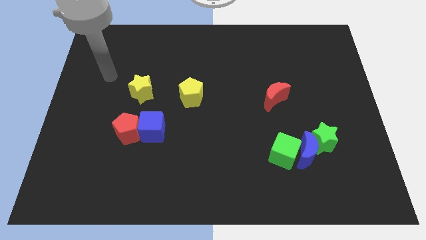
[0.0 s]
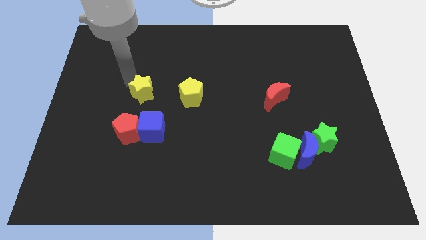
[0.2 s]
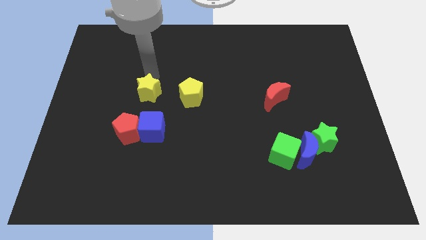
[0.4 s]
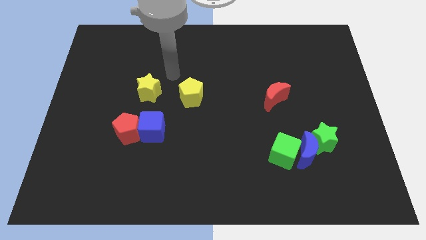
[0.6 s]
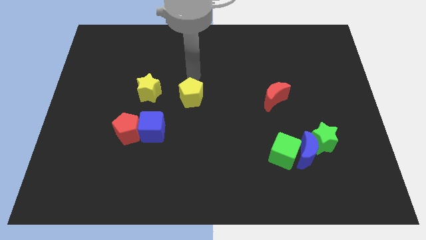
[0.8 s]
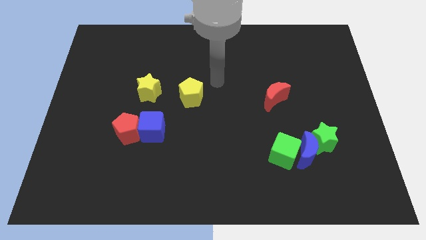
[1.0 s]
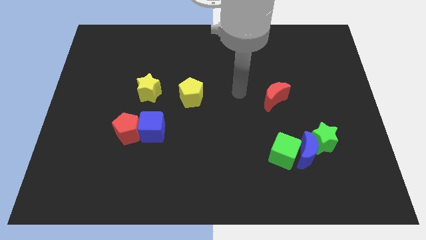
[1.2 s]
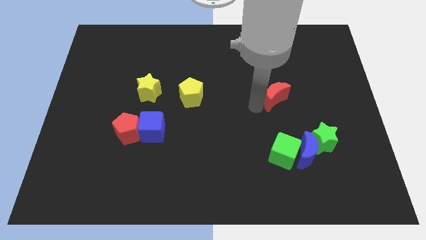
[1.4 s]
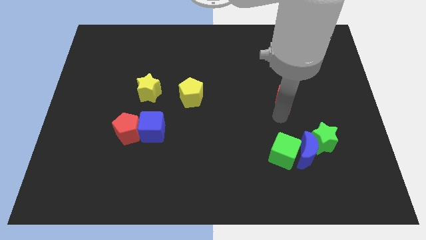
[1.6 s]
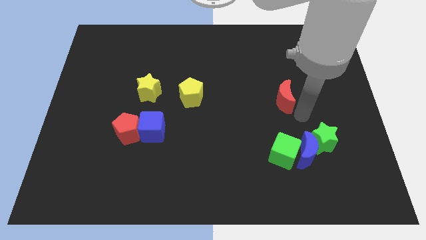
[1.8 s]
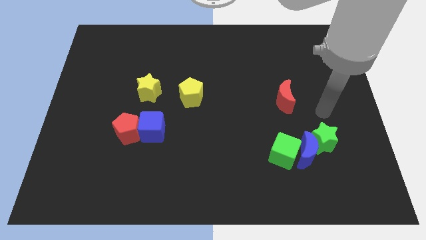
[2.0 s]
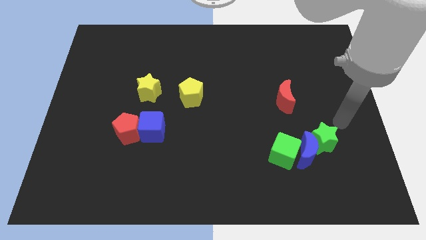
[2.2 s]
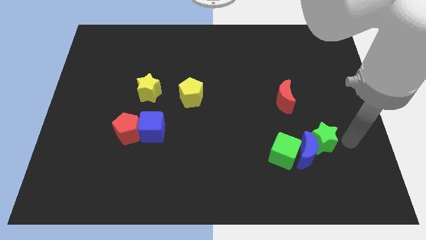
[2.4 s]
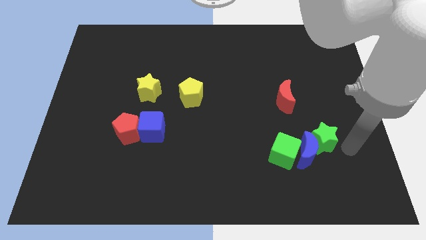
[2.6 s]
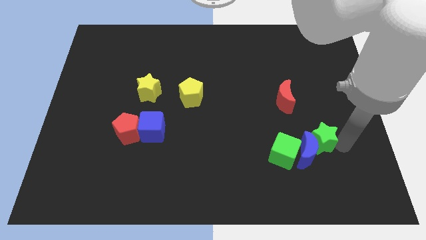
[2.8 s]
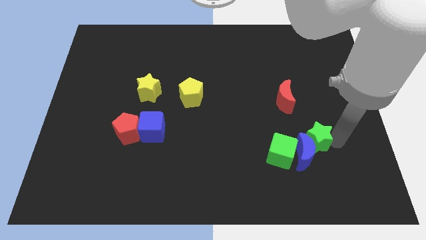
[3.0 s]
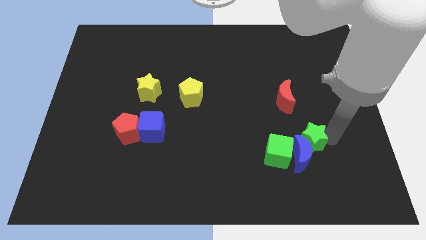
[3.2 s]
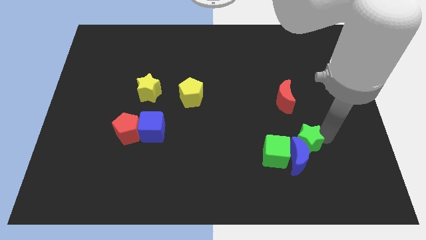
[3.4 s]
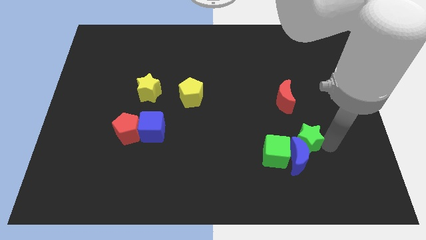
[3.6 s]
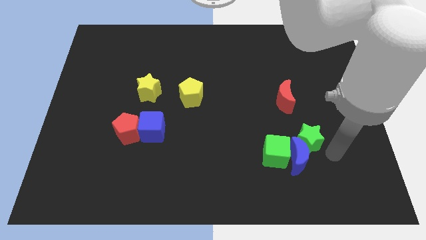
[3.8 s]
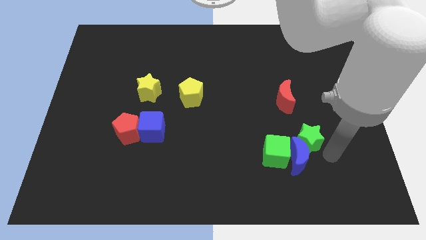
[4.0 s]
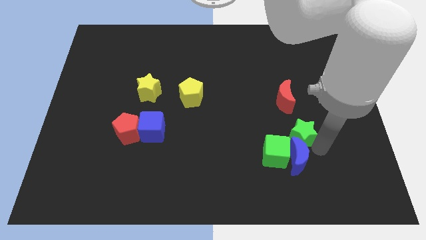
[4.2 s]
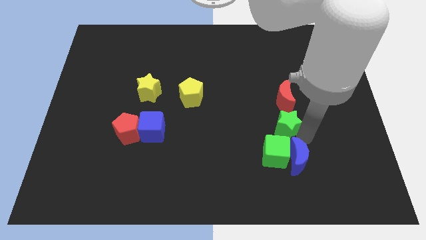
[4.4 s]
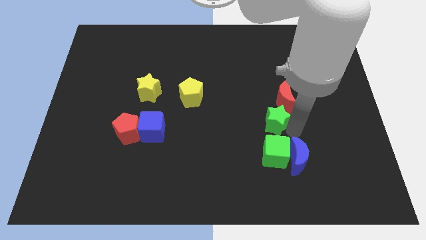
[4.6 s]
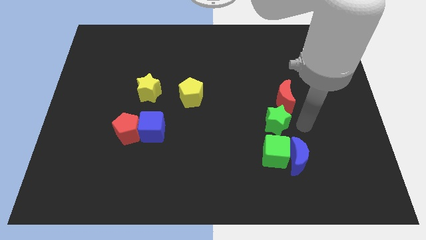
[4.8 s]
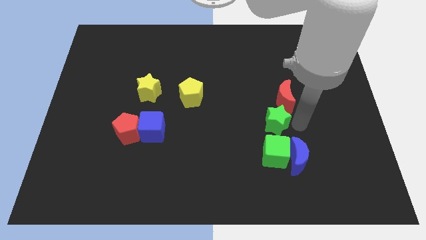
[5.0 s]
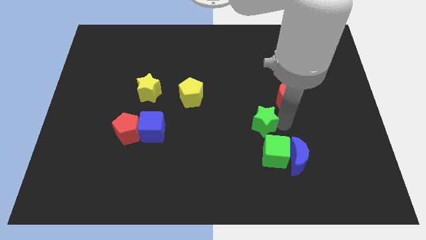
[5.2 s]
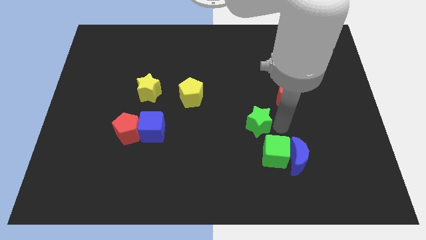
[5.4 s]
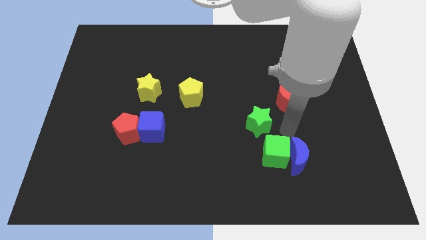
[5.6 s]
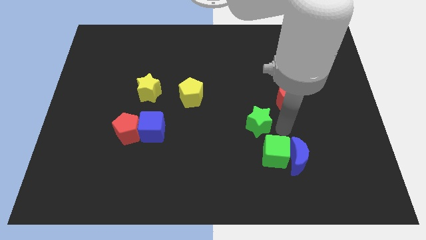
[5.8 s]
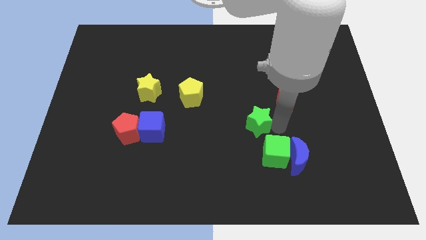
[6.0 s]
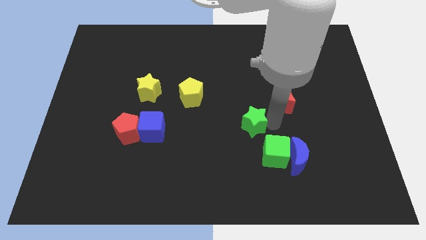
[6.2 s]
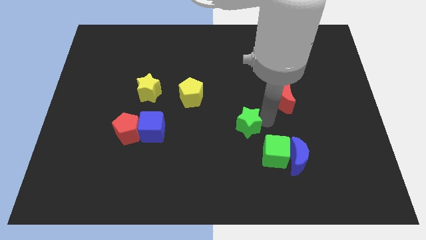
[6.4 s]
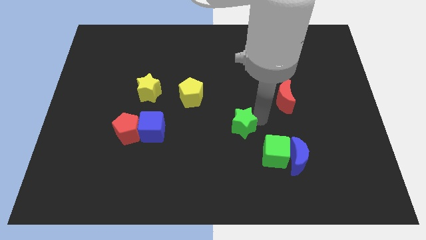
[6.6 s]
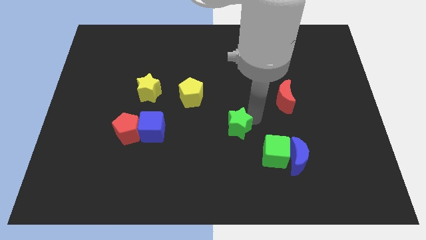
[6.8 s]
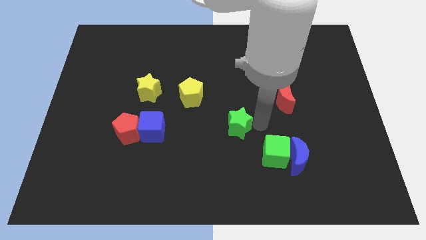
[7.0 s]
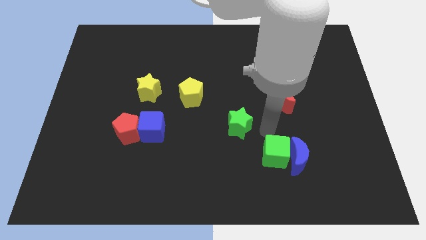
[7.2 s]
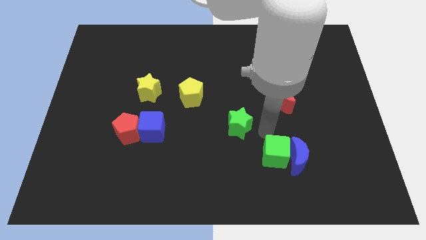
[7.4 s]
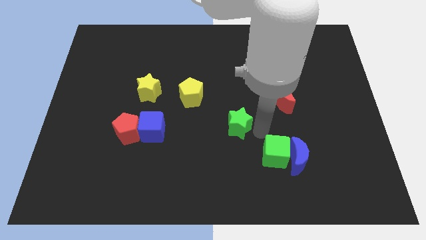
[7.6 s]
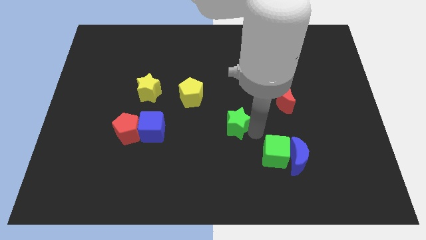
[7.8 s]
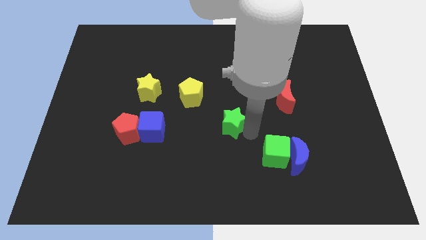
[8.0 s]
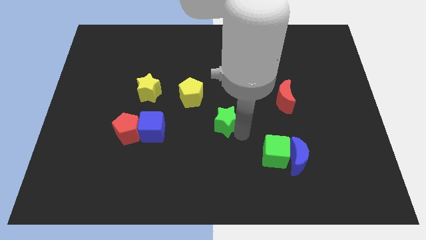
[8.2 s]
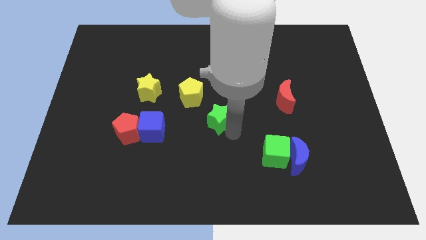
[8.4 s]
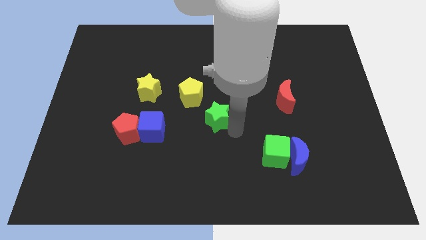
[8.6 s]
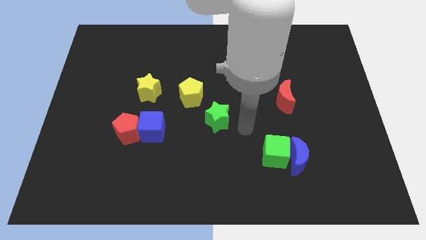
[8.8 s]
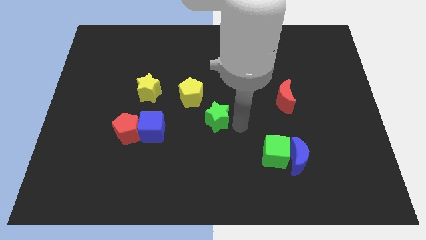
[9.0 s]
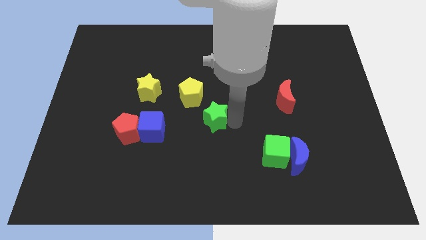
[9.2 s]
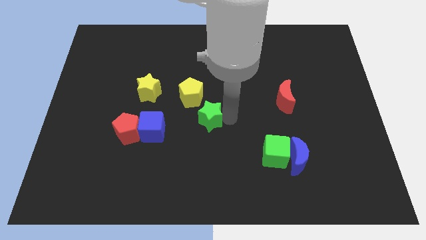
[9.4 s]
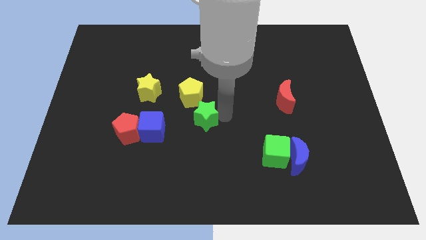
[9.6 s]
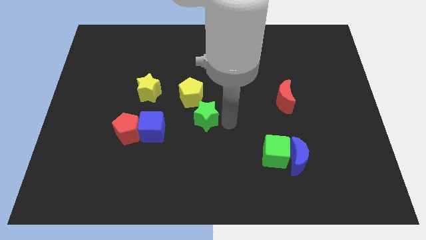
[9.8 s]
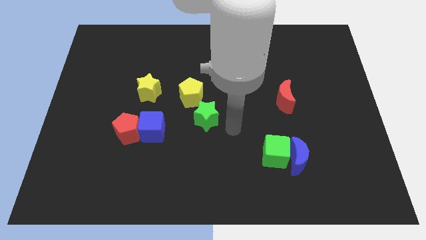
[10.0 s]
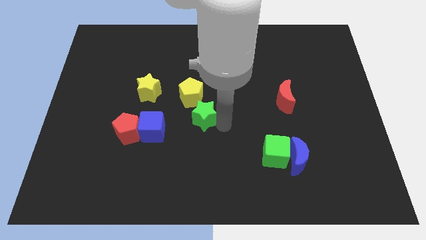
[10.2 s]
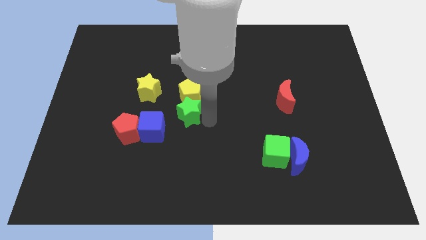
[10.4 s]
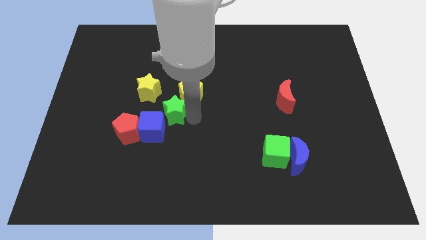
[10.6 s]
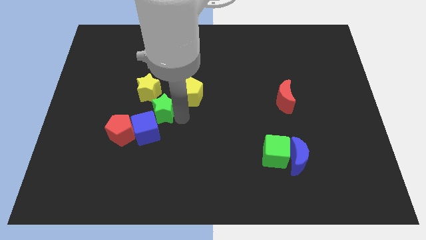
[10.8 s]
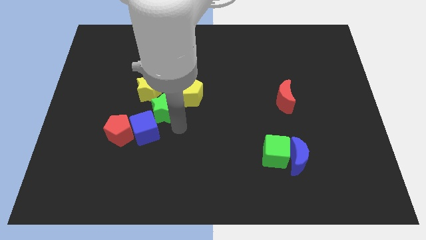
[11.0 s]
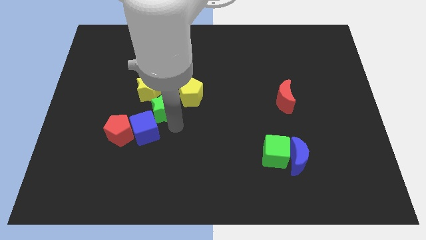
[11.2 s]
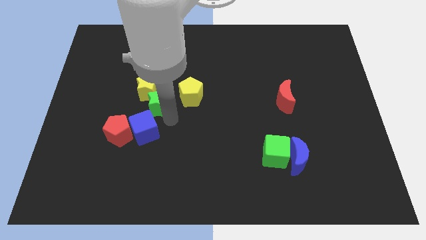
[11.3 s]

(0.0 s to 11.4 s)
move the green star towards the yellow star

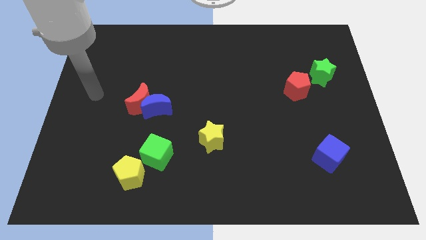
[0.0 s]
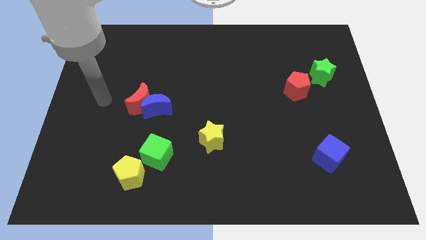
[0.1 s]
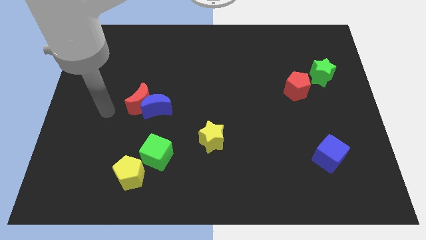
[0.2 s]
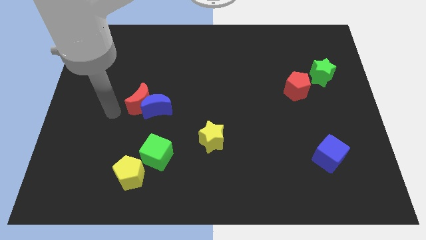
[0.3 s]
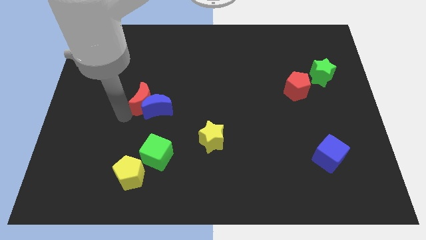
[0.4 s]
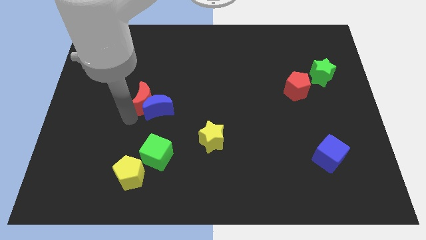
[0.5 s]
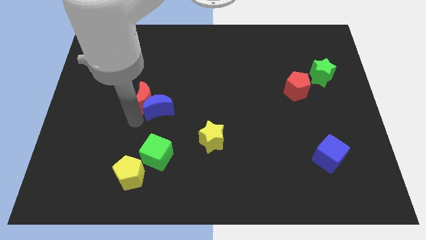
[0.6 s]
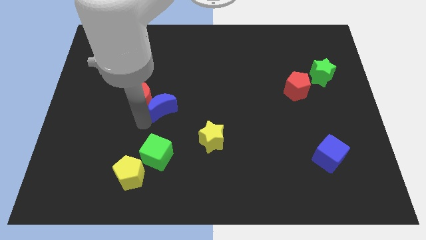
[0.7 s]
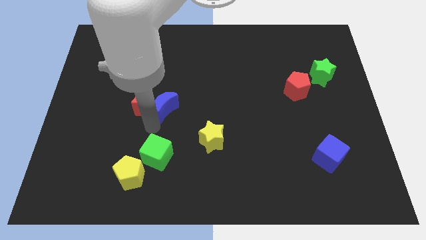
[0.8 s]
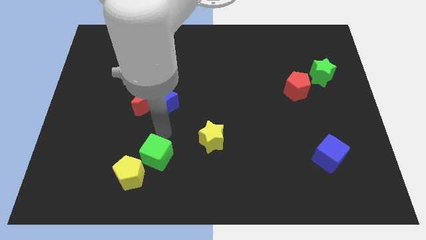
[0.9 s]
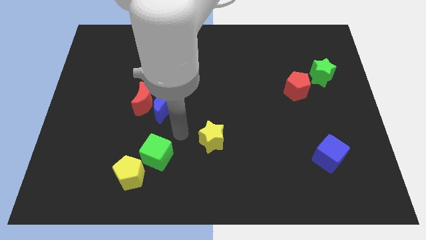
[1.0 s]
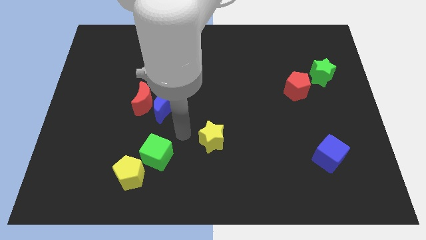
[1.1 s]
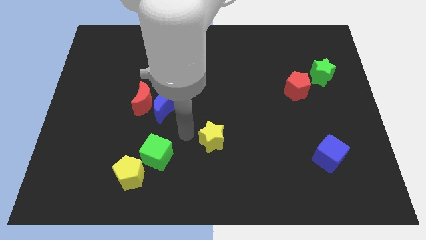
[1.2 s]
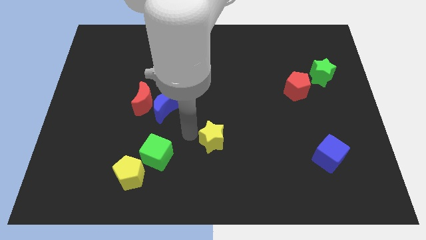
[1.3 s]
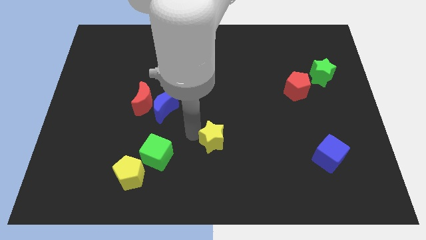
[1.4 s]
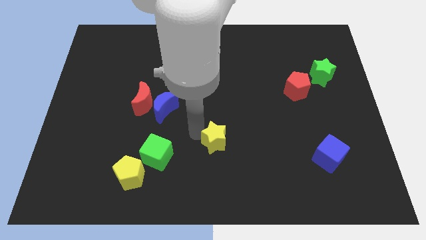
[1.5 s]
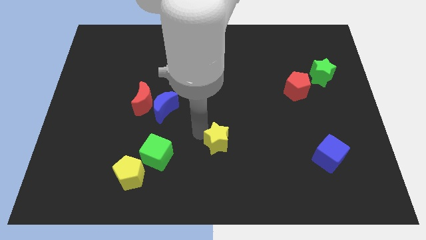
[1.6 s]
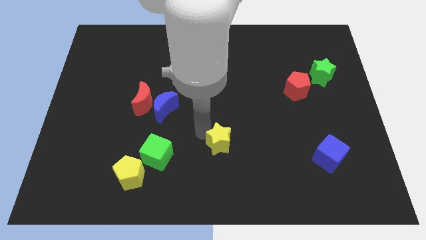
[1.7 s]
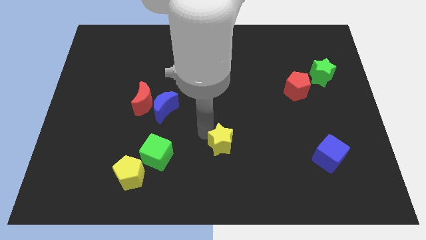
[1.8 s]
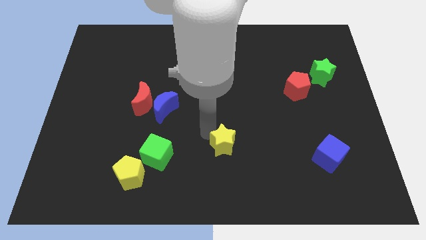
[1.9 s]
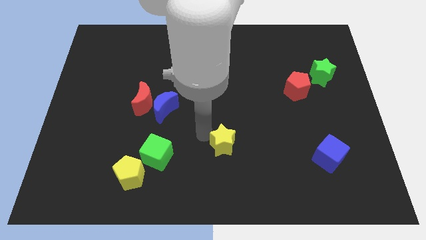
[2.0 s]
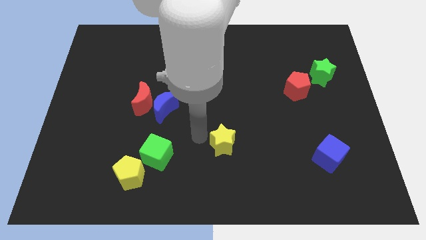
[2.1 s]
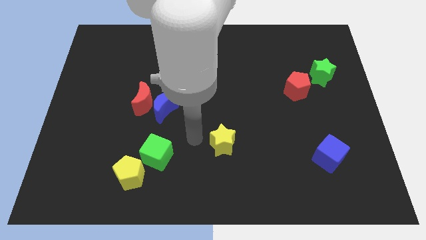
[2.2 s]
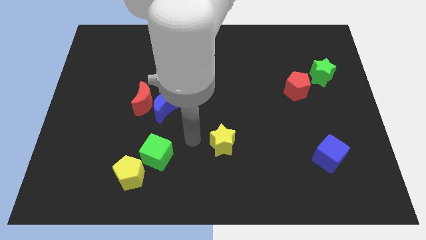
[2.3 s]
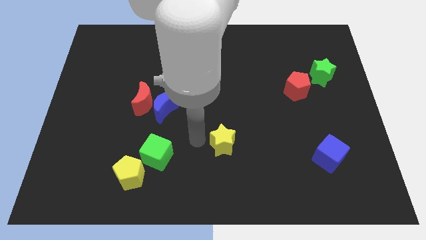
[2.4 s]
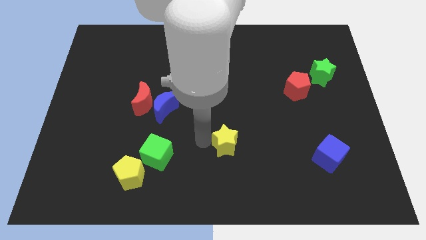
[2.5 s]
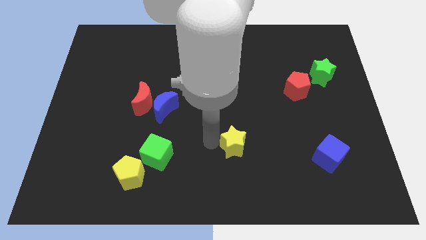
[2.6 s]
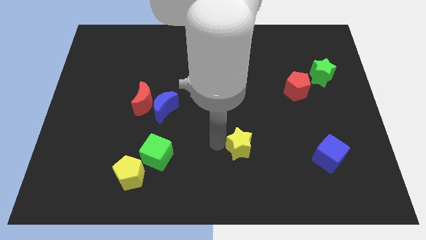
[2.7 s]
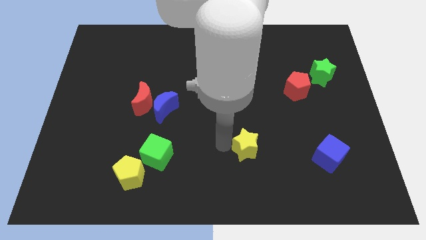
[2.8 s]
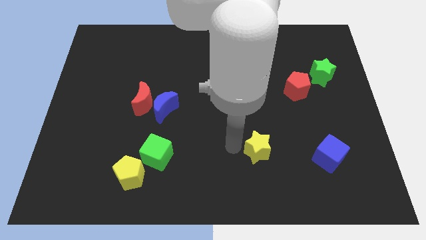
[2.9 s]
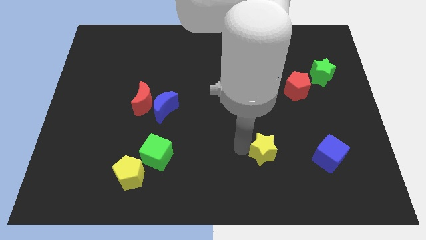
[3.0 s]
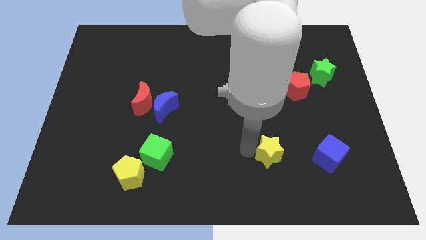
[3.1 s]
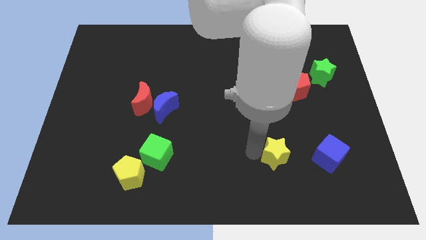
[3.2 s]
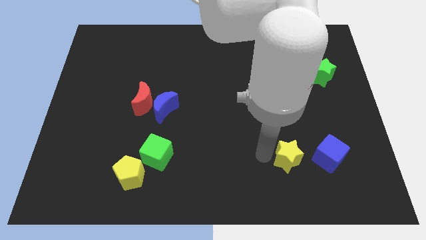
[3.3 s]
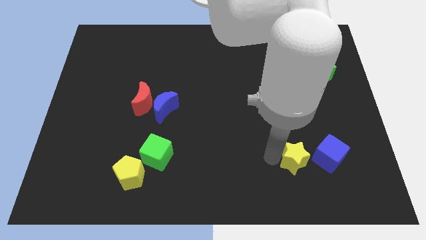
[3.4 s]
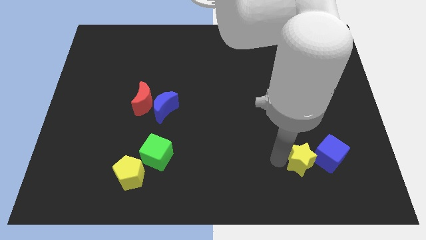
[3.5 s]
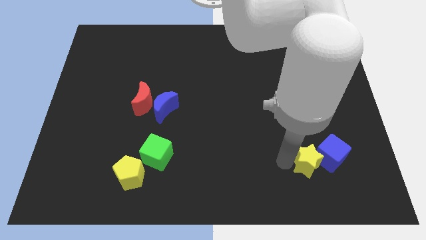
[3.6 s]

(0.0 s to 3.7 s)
put the yellow star towards the blue cube
